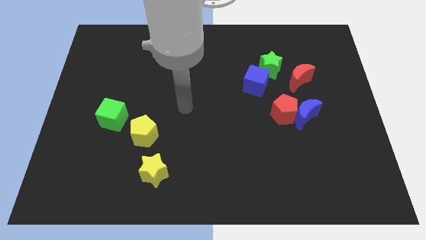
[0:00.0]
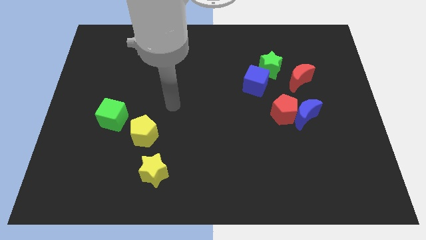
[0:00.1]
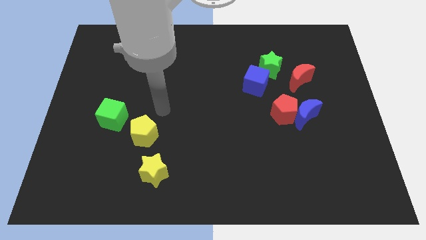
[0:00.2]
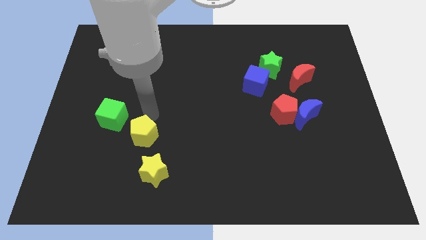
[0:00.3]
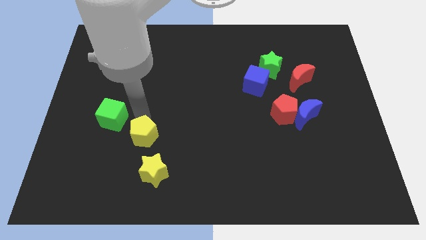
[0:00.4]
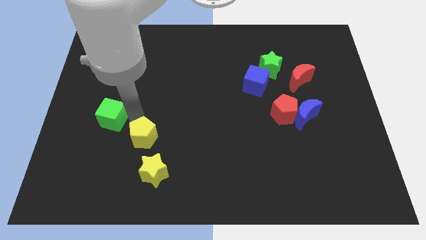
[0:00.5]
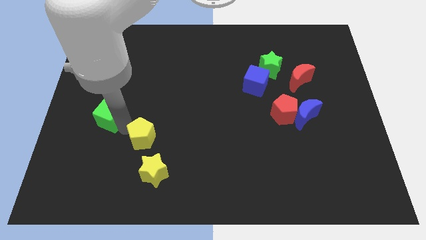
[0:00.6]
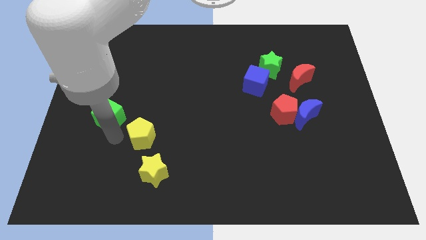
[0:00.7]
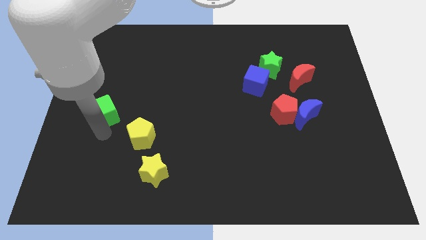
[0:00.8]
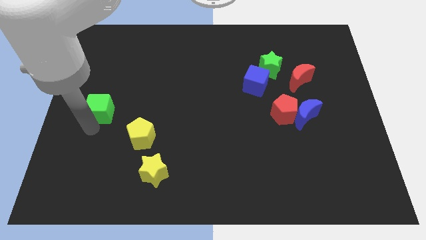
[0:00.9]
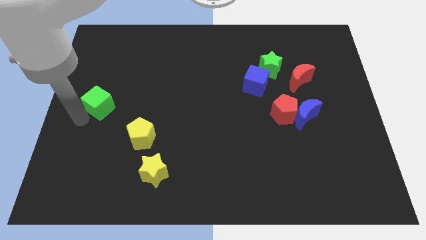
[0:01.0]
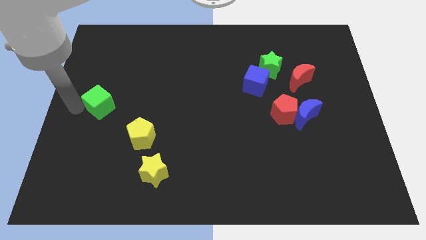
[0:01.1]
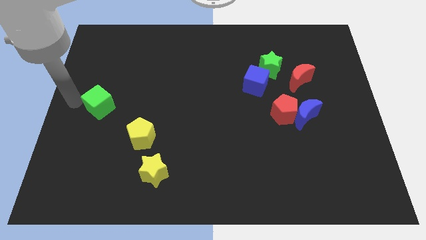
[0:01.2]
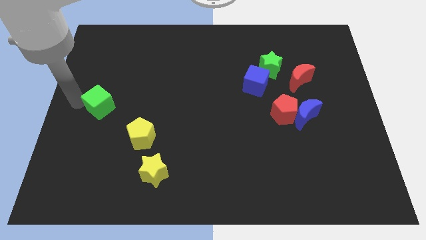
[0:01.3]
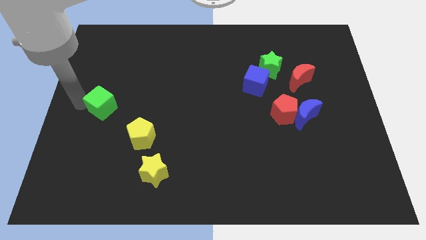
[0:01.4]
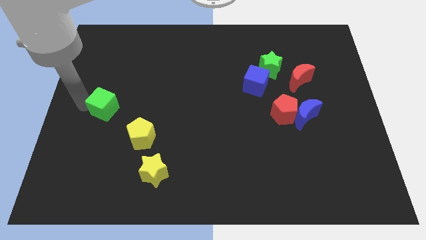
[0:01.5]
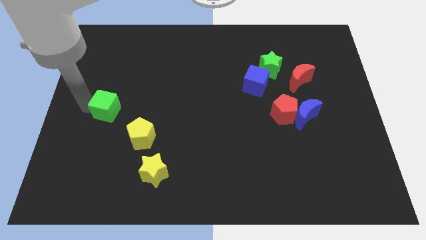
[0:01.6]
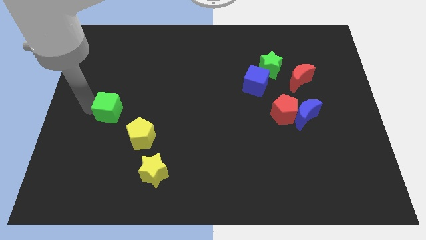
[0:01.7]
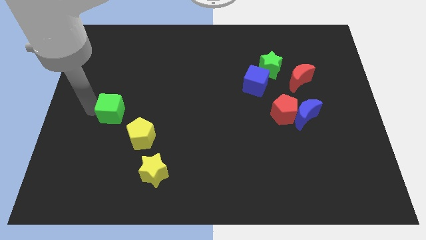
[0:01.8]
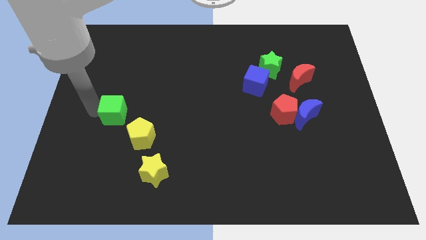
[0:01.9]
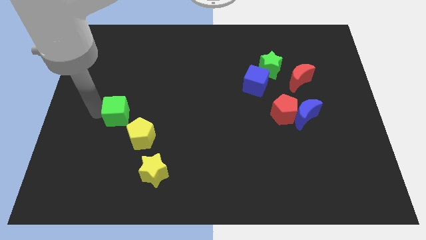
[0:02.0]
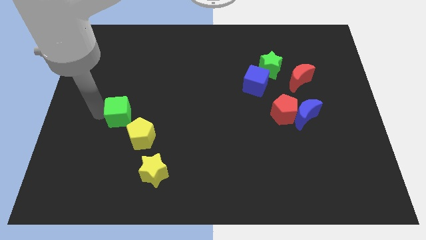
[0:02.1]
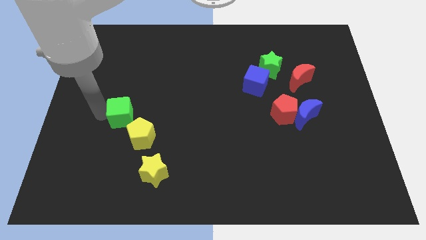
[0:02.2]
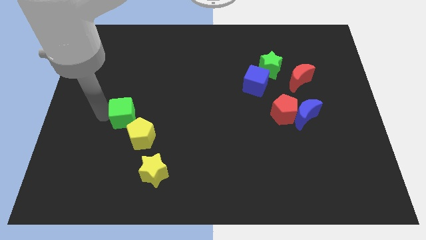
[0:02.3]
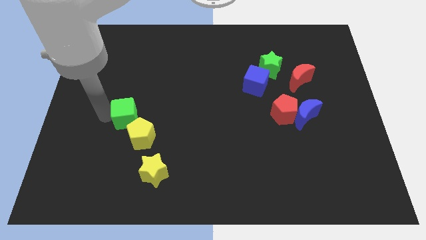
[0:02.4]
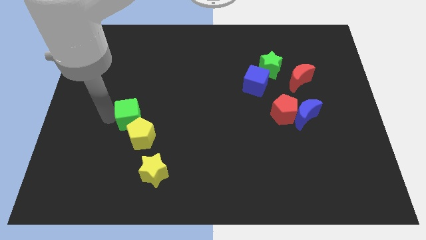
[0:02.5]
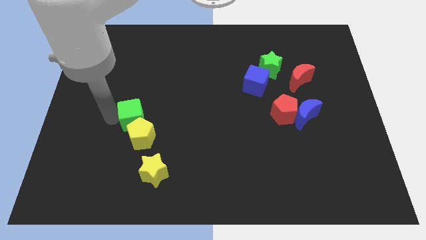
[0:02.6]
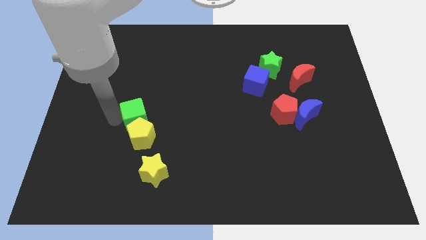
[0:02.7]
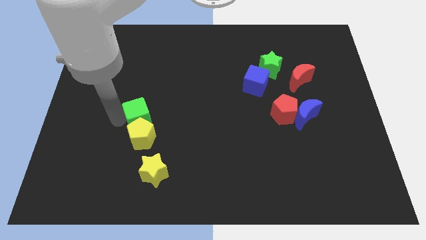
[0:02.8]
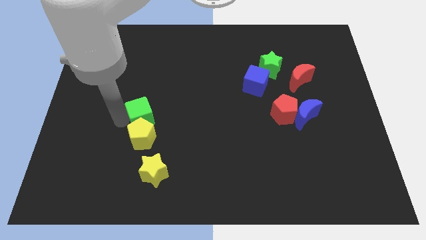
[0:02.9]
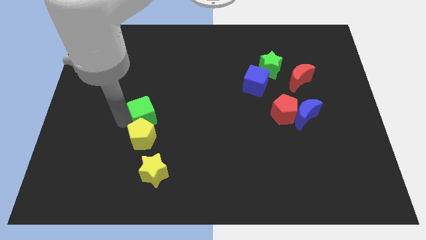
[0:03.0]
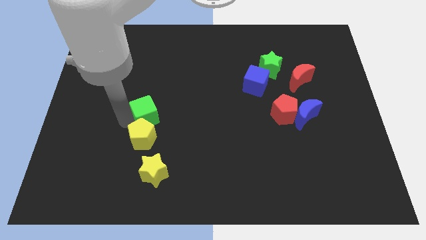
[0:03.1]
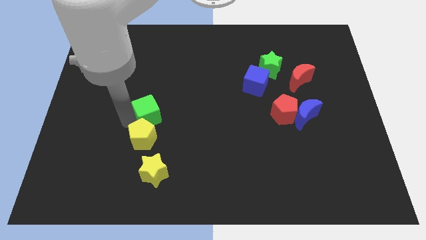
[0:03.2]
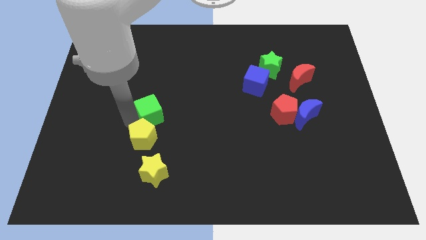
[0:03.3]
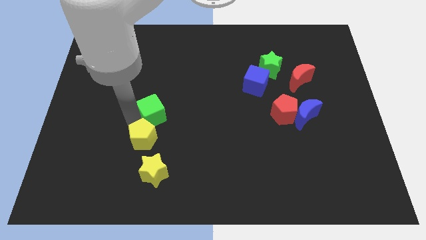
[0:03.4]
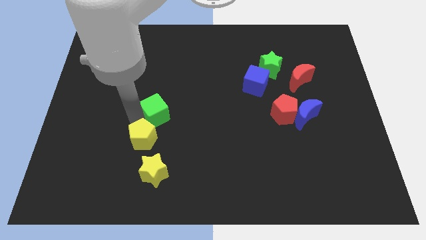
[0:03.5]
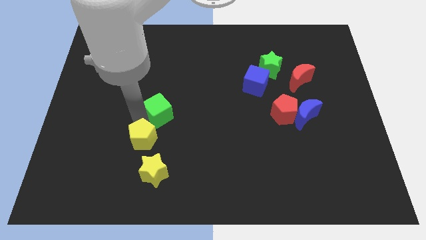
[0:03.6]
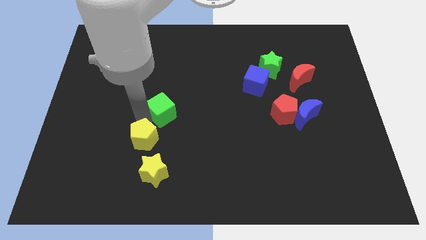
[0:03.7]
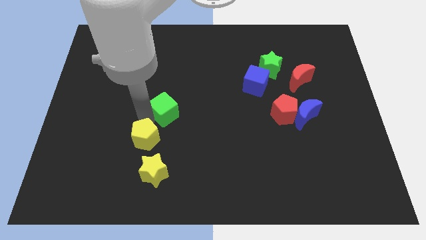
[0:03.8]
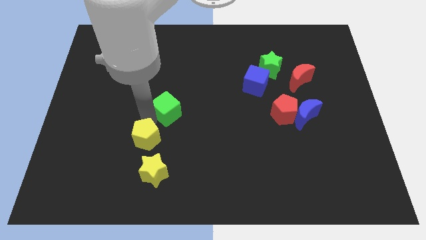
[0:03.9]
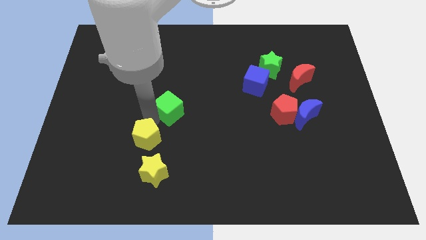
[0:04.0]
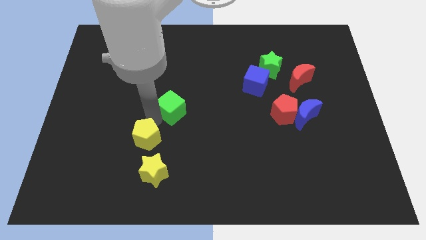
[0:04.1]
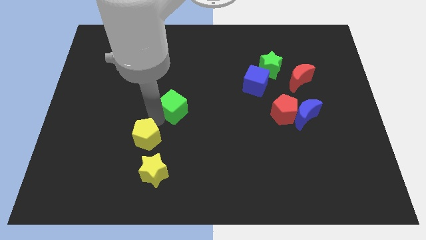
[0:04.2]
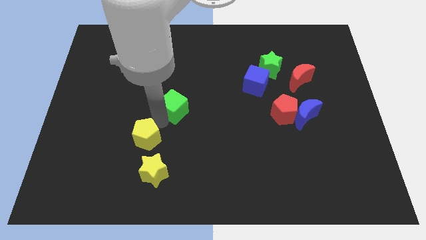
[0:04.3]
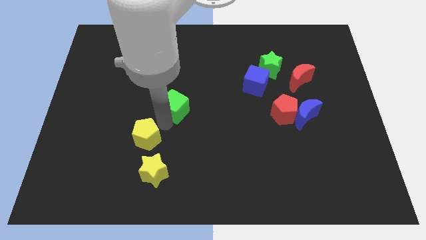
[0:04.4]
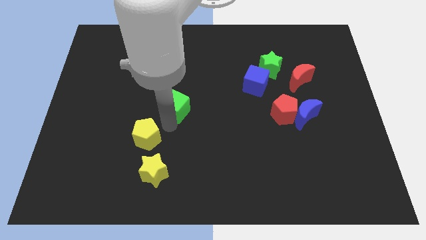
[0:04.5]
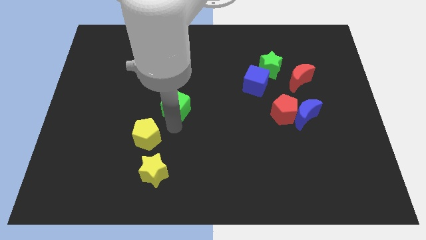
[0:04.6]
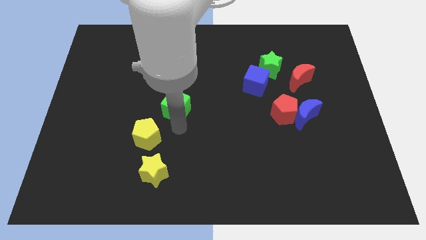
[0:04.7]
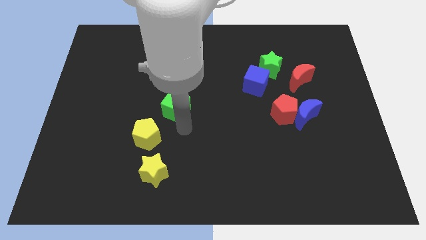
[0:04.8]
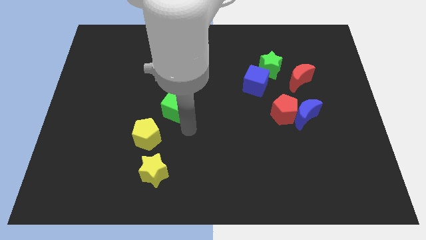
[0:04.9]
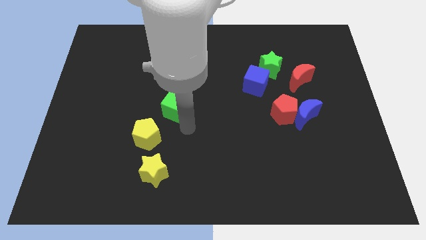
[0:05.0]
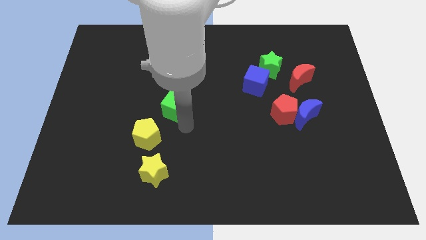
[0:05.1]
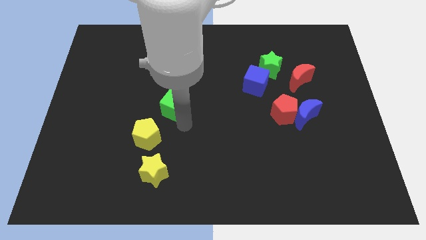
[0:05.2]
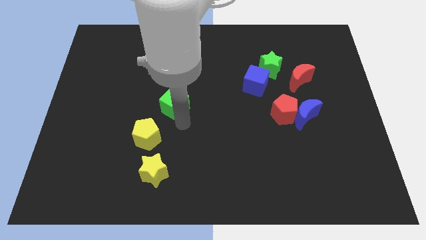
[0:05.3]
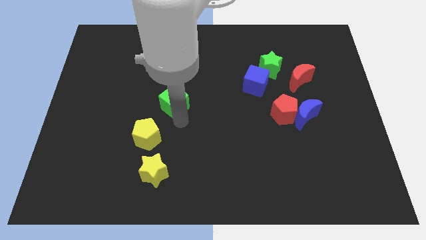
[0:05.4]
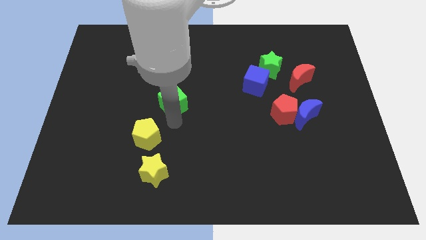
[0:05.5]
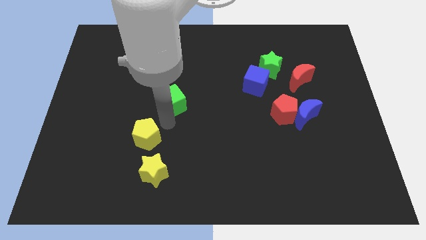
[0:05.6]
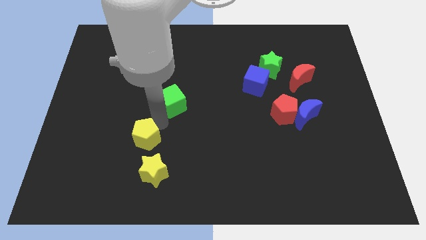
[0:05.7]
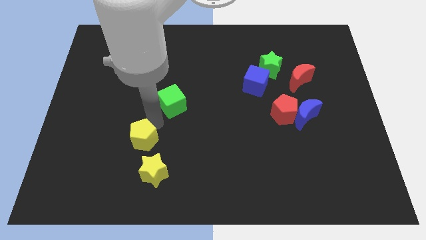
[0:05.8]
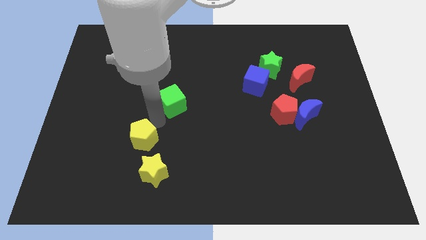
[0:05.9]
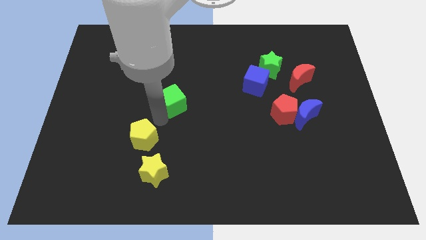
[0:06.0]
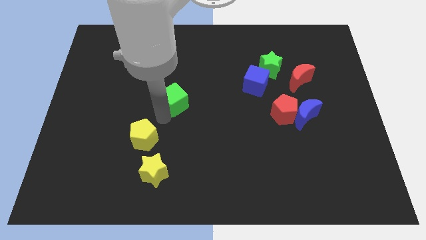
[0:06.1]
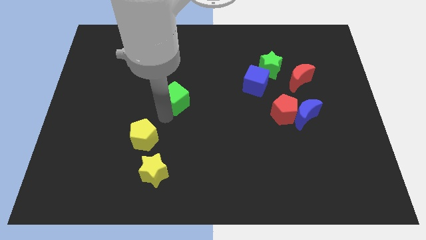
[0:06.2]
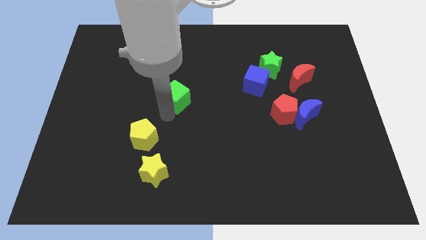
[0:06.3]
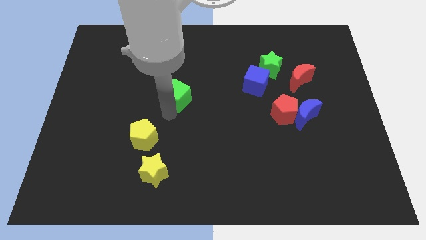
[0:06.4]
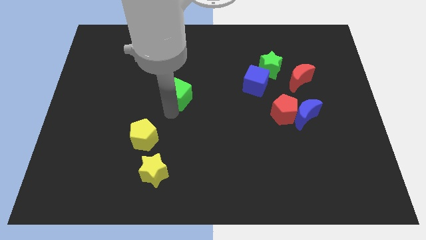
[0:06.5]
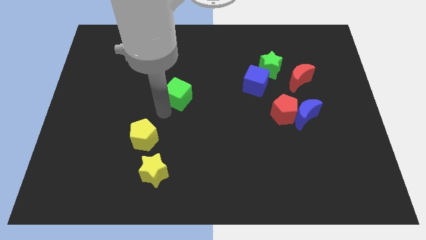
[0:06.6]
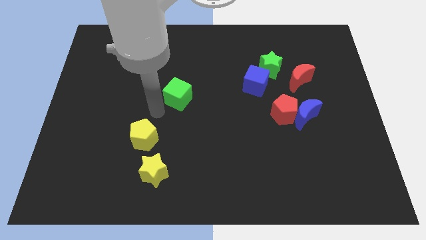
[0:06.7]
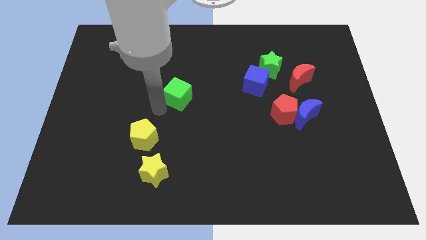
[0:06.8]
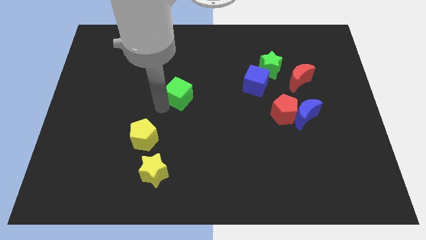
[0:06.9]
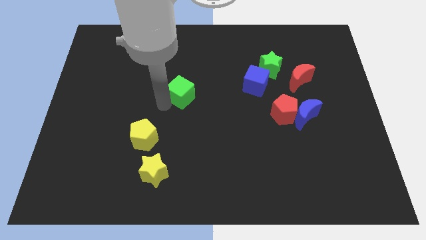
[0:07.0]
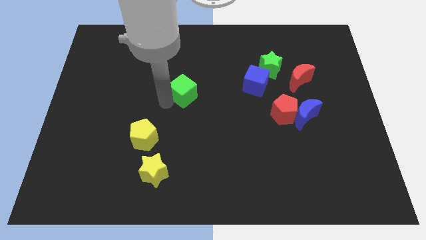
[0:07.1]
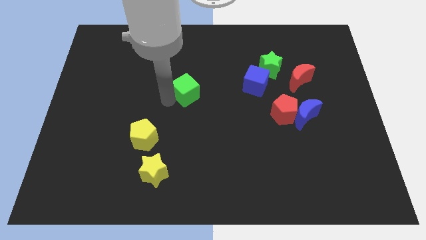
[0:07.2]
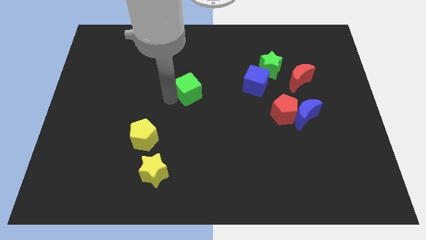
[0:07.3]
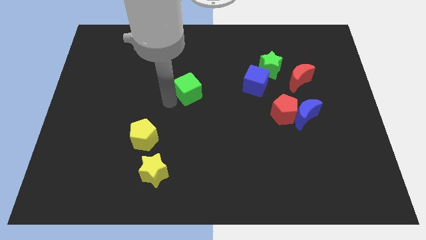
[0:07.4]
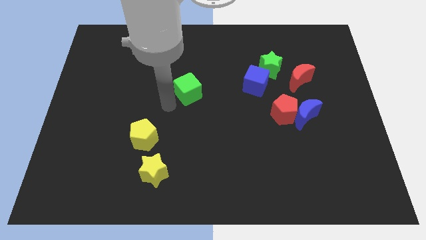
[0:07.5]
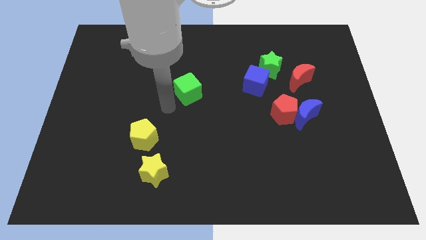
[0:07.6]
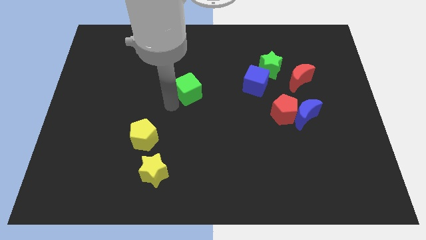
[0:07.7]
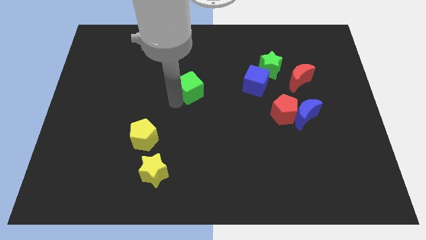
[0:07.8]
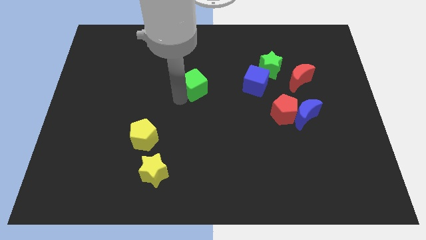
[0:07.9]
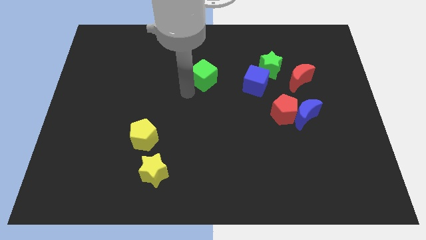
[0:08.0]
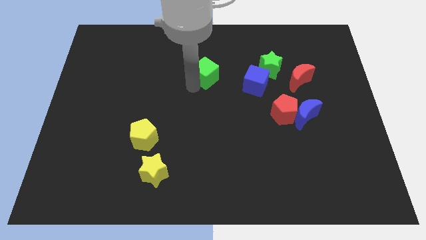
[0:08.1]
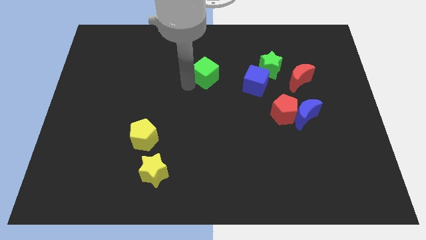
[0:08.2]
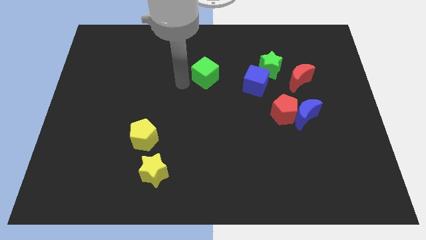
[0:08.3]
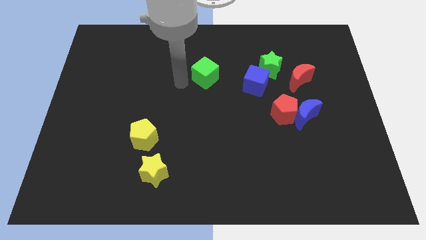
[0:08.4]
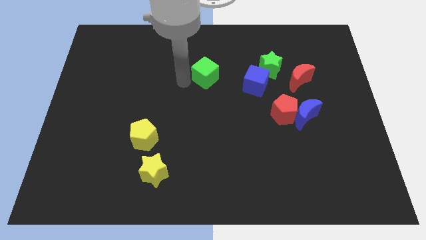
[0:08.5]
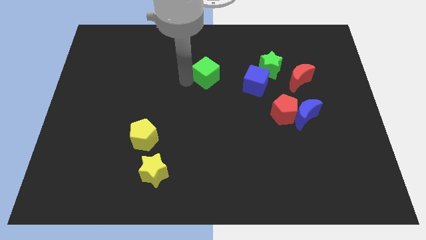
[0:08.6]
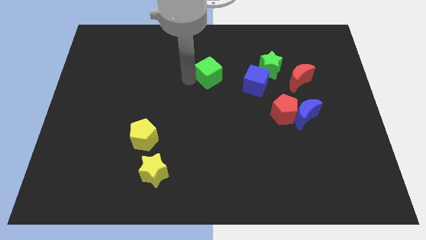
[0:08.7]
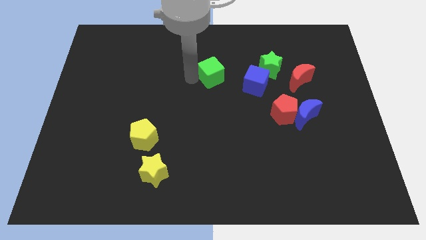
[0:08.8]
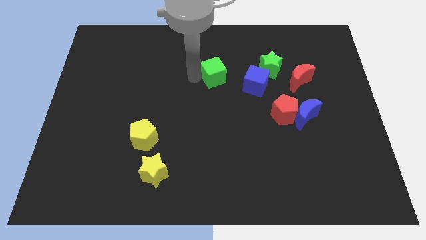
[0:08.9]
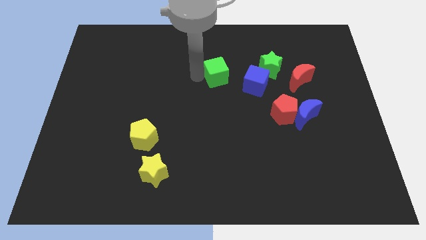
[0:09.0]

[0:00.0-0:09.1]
move the green cube to the top left side of the blue cube
